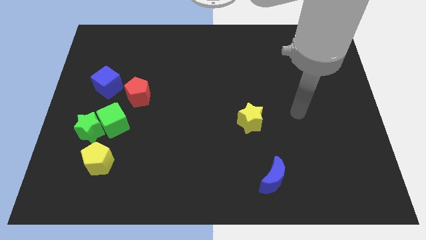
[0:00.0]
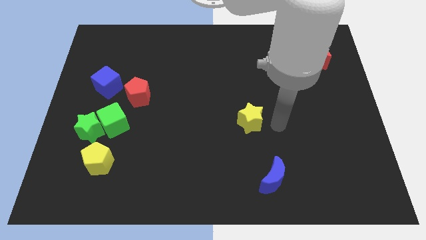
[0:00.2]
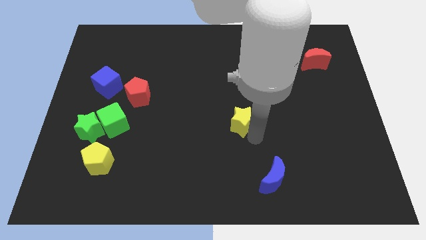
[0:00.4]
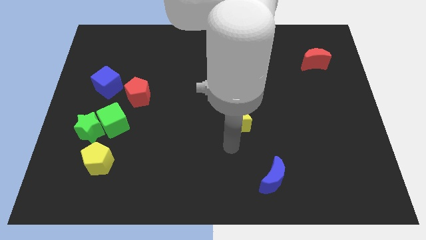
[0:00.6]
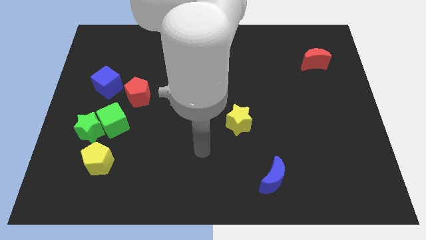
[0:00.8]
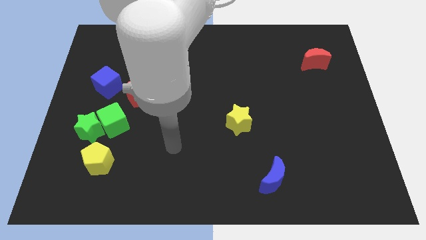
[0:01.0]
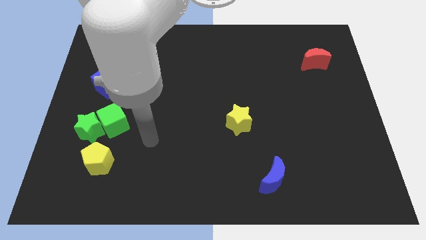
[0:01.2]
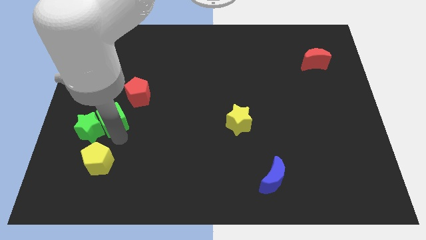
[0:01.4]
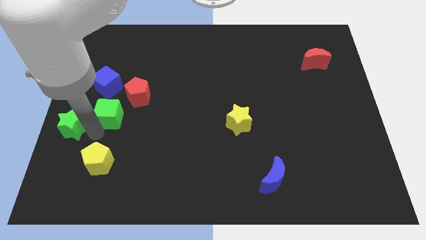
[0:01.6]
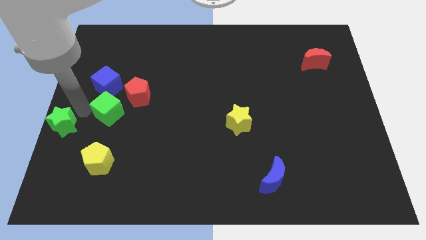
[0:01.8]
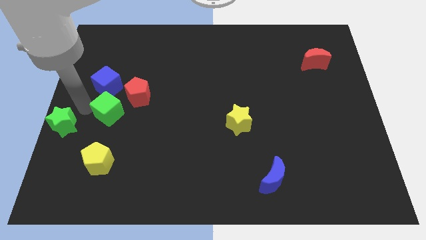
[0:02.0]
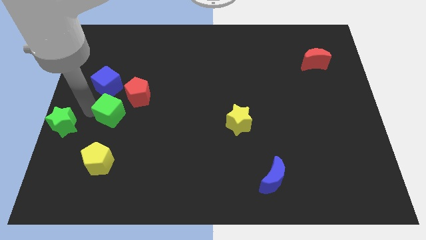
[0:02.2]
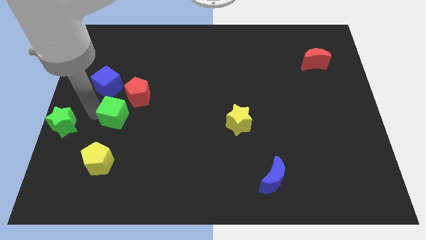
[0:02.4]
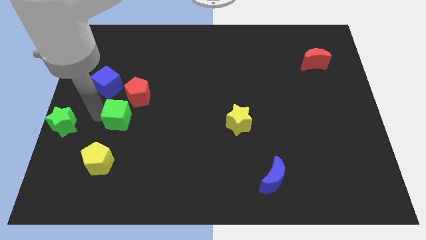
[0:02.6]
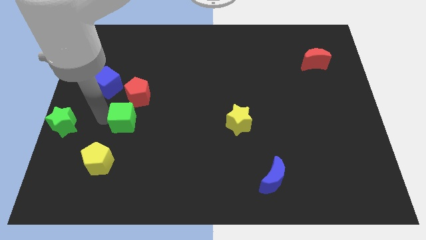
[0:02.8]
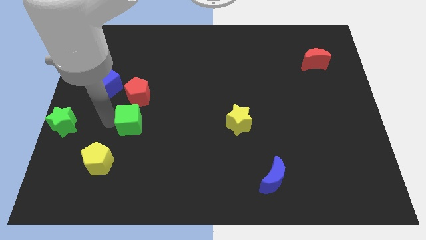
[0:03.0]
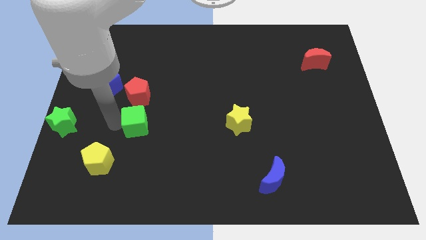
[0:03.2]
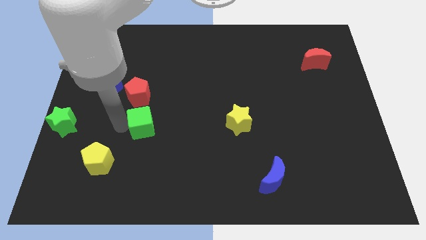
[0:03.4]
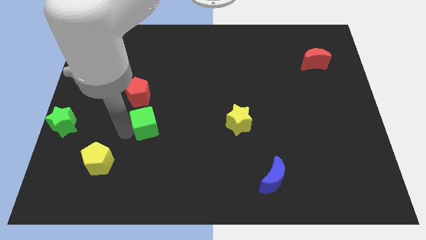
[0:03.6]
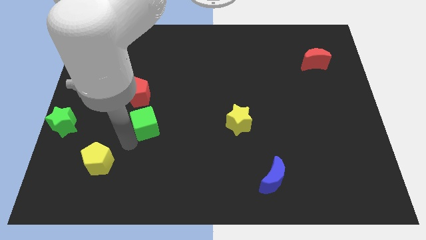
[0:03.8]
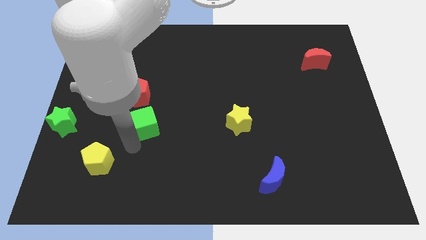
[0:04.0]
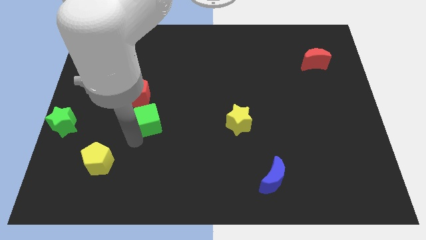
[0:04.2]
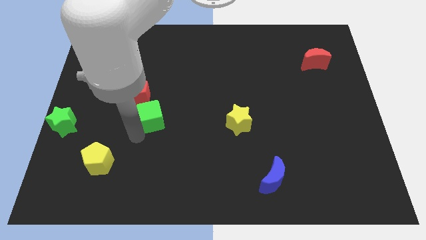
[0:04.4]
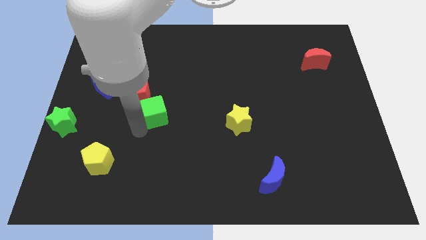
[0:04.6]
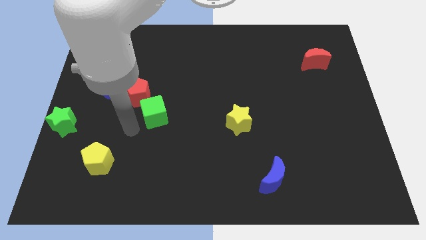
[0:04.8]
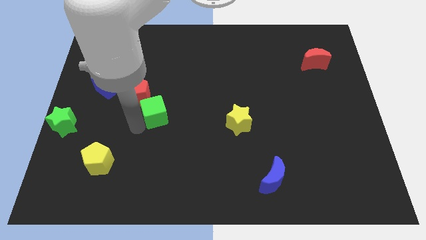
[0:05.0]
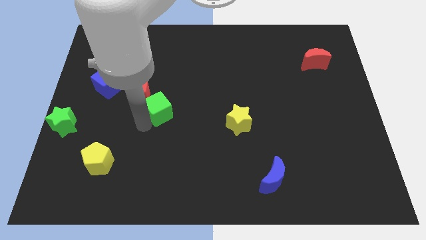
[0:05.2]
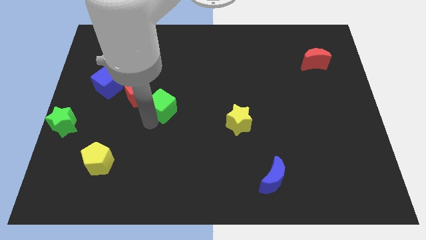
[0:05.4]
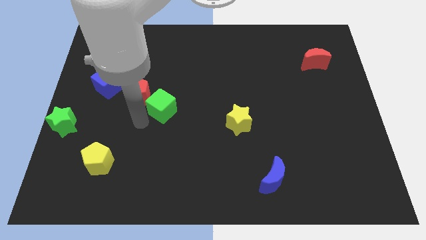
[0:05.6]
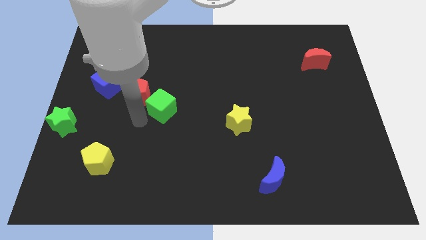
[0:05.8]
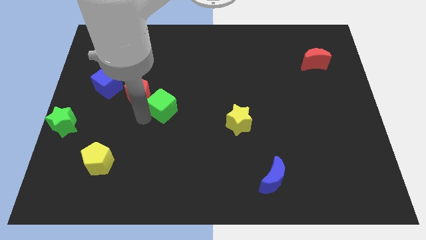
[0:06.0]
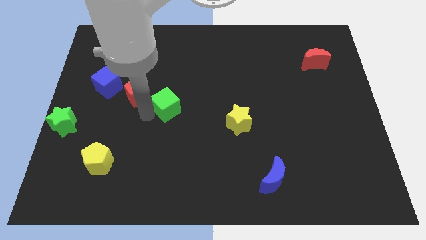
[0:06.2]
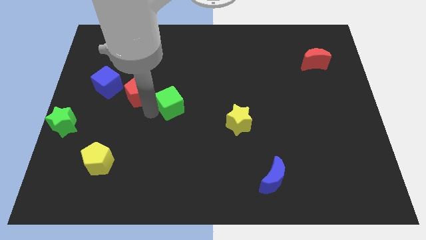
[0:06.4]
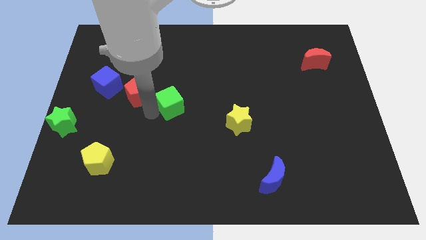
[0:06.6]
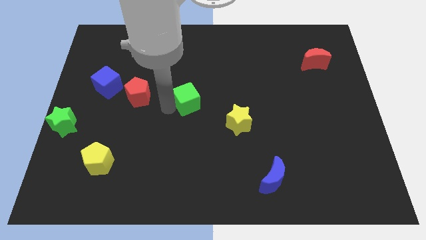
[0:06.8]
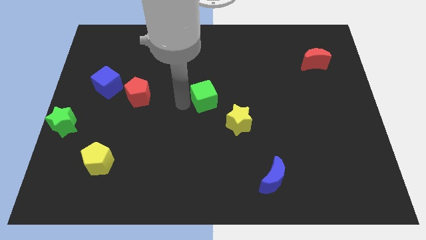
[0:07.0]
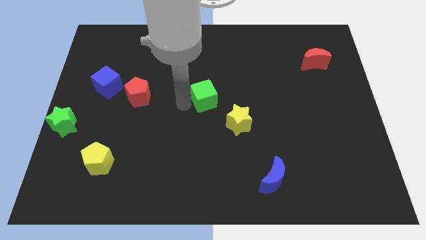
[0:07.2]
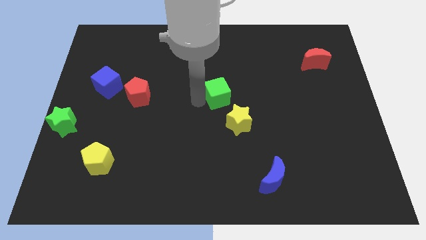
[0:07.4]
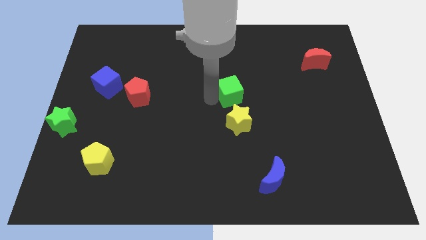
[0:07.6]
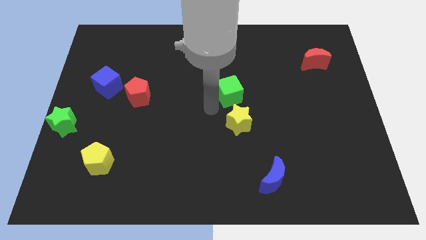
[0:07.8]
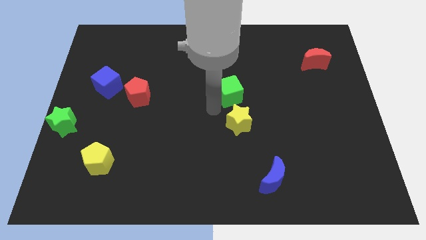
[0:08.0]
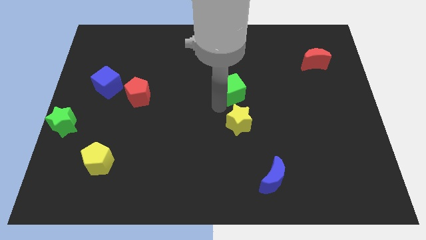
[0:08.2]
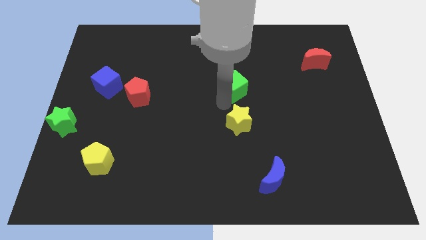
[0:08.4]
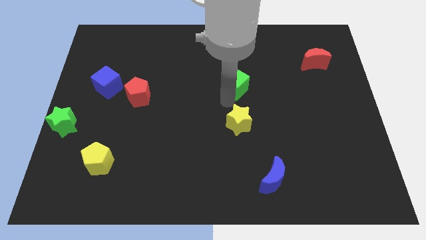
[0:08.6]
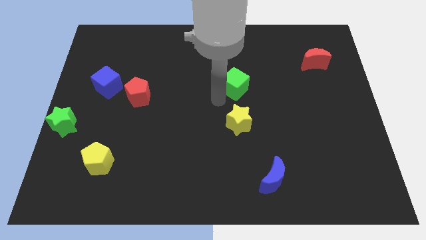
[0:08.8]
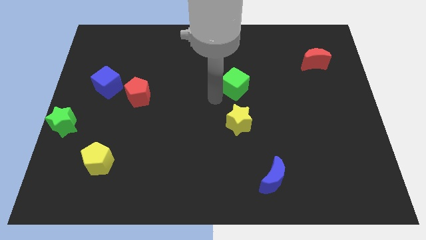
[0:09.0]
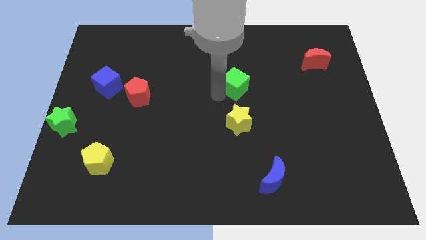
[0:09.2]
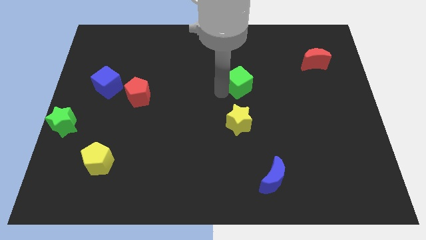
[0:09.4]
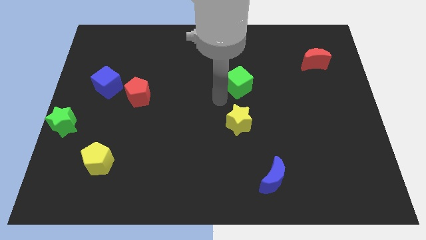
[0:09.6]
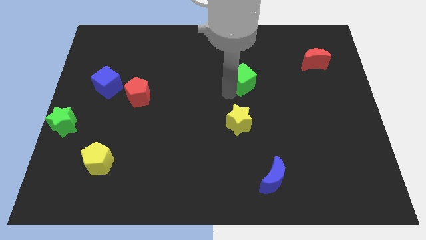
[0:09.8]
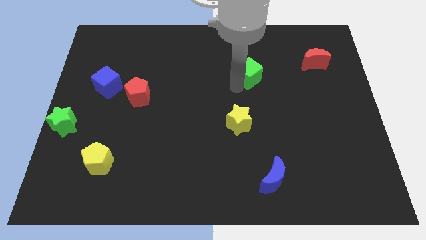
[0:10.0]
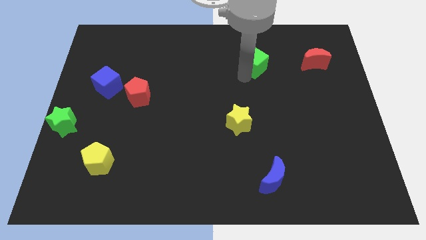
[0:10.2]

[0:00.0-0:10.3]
put the green cube left of the red moon

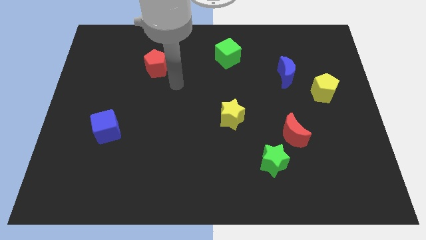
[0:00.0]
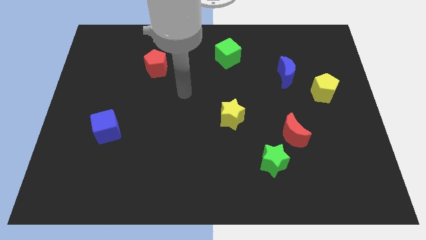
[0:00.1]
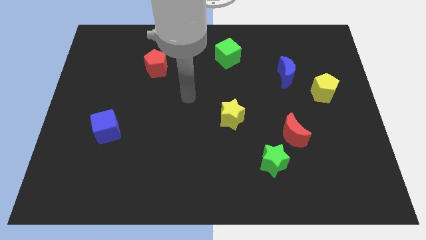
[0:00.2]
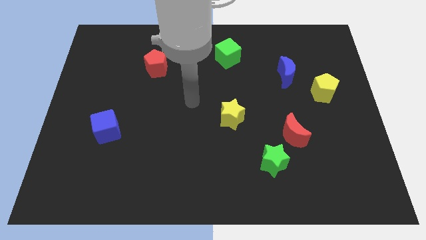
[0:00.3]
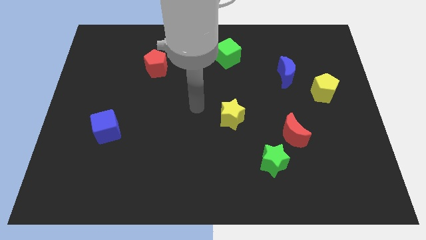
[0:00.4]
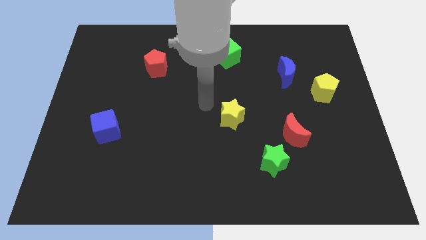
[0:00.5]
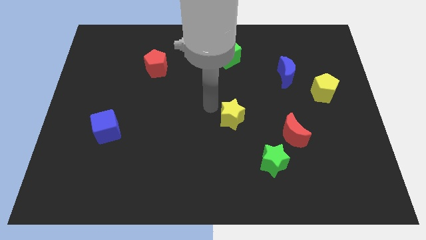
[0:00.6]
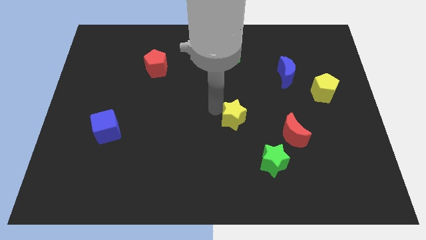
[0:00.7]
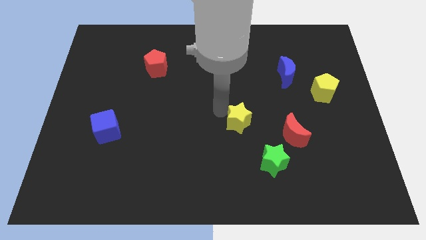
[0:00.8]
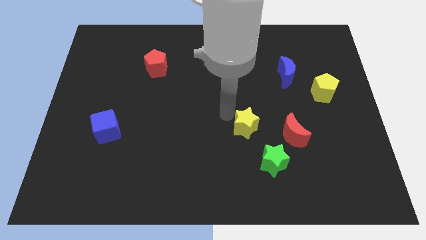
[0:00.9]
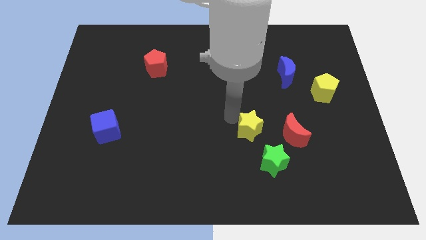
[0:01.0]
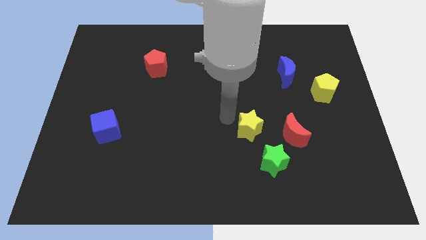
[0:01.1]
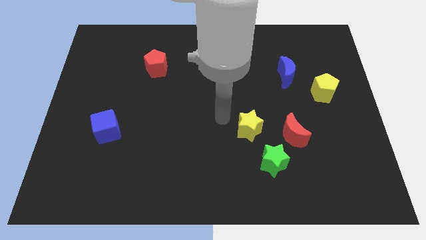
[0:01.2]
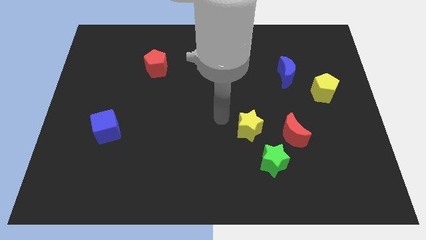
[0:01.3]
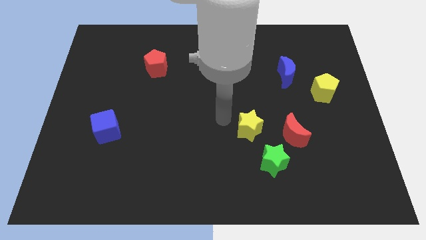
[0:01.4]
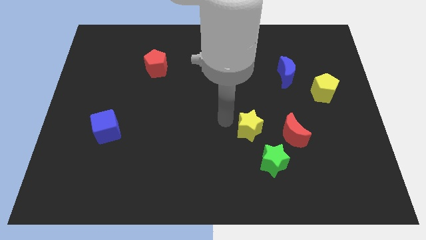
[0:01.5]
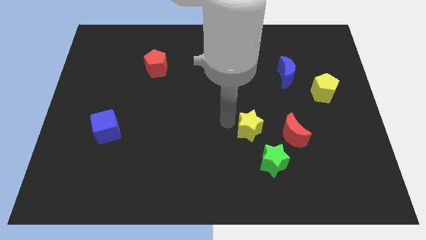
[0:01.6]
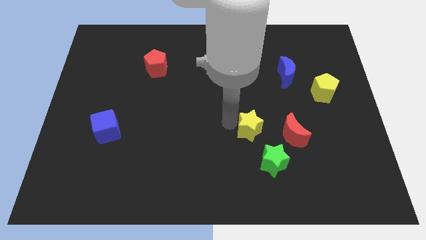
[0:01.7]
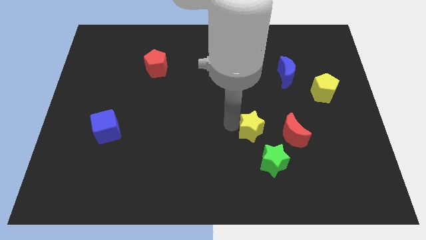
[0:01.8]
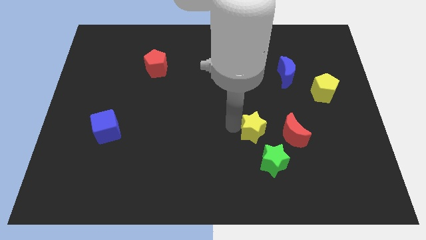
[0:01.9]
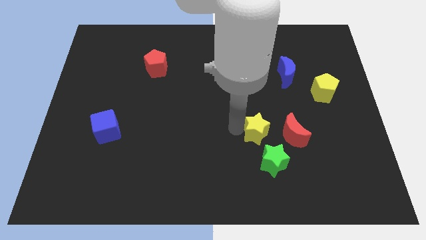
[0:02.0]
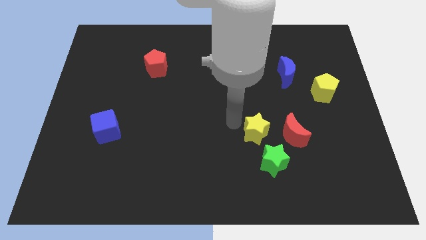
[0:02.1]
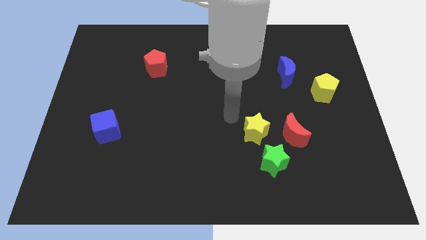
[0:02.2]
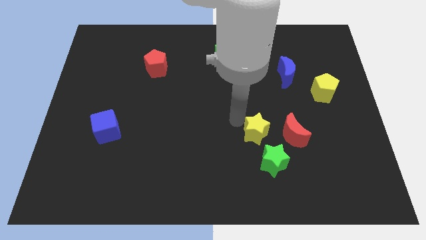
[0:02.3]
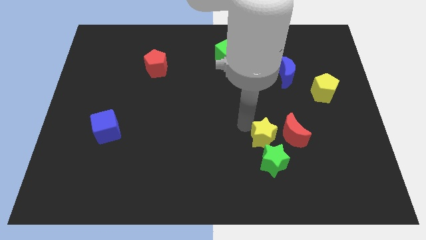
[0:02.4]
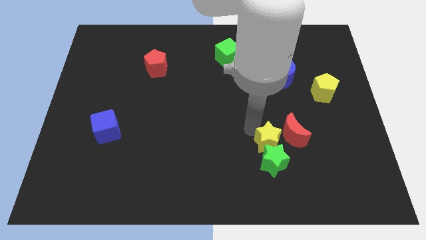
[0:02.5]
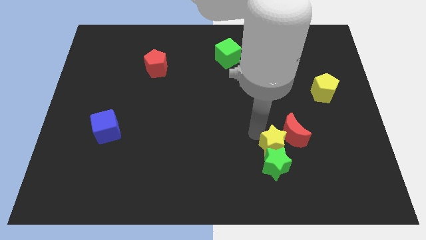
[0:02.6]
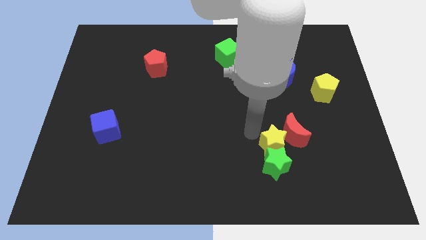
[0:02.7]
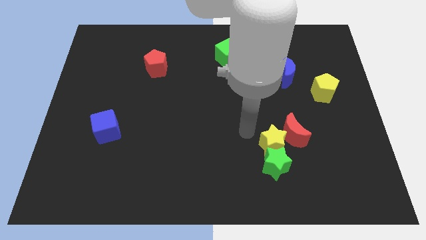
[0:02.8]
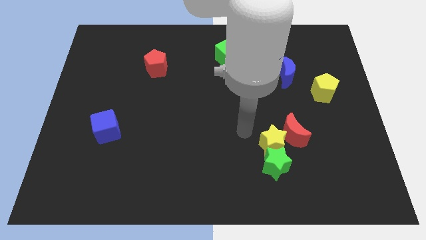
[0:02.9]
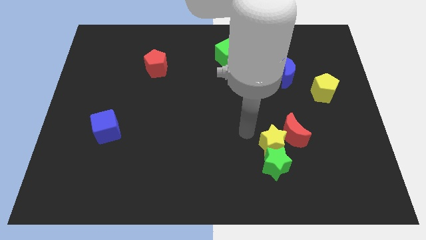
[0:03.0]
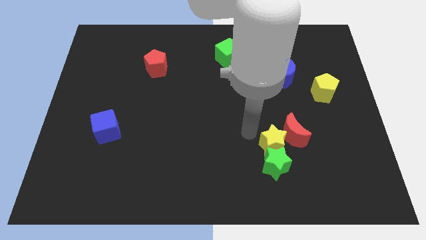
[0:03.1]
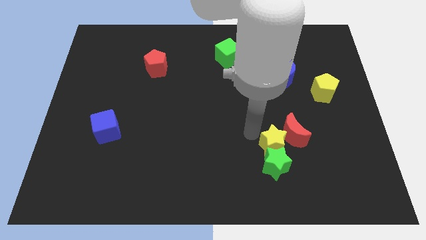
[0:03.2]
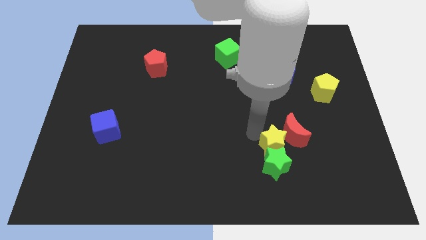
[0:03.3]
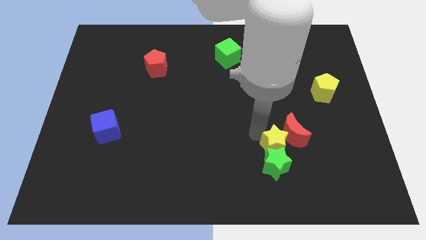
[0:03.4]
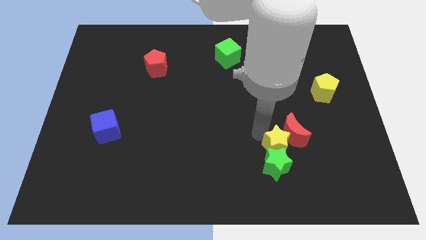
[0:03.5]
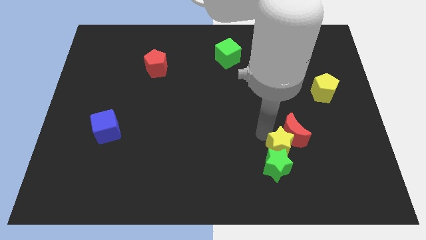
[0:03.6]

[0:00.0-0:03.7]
push the yellow star to the bottom side of the red moon
